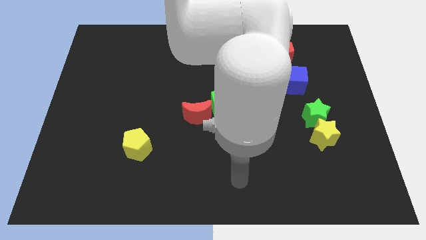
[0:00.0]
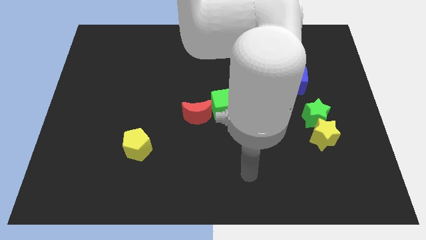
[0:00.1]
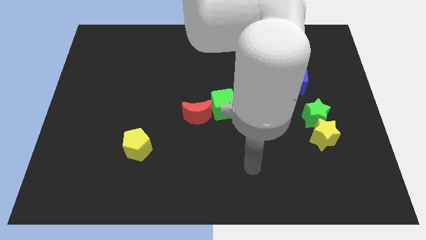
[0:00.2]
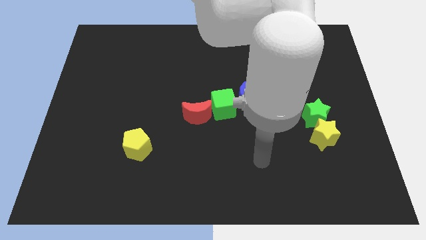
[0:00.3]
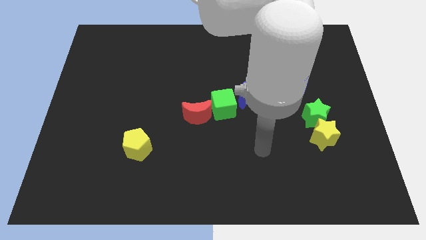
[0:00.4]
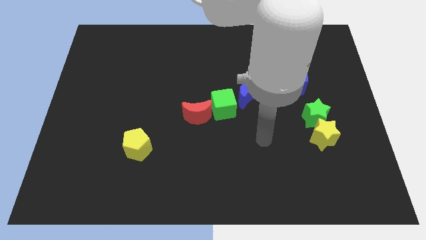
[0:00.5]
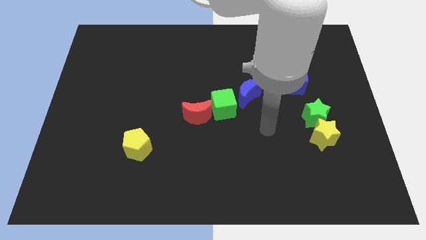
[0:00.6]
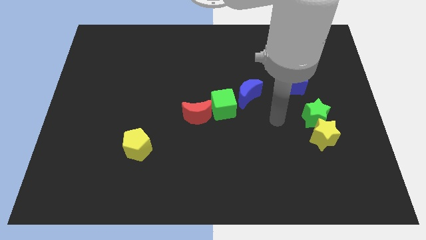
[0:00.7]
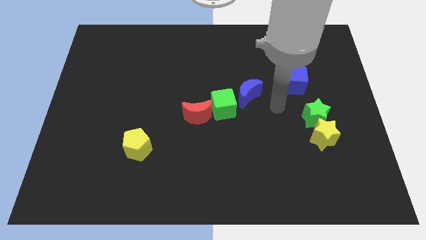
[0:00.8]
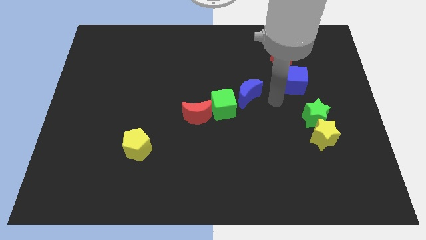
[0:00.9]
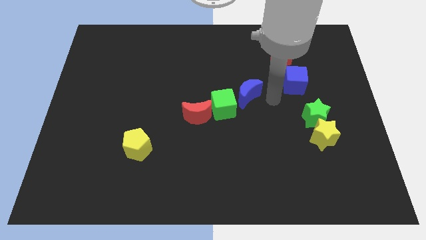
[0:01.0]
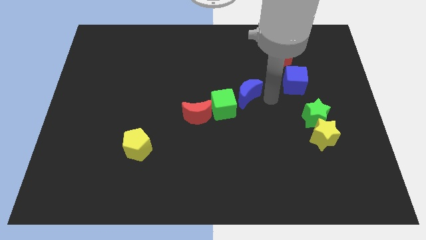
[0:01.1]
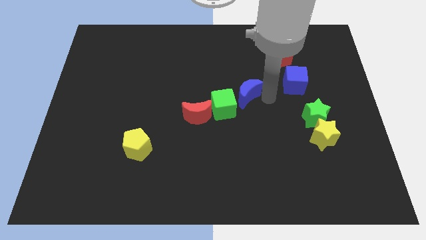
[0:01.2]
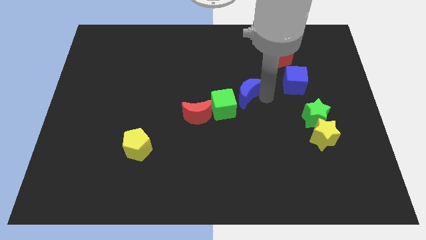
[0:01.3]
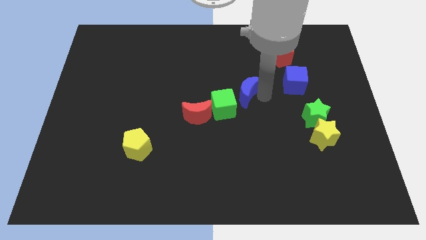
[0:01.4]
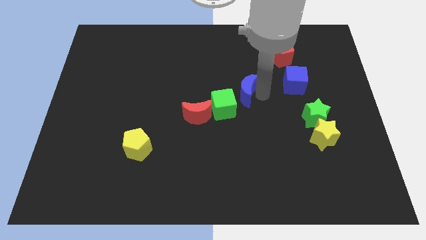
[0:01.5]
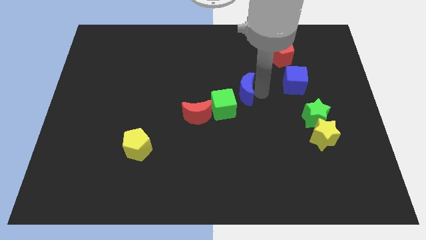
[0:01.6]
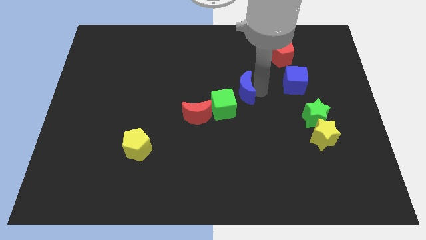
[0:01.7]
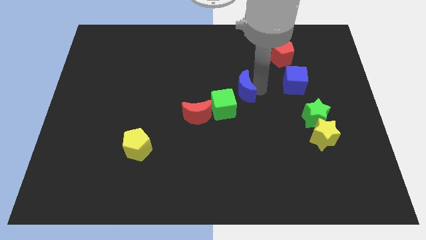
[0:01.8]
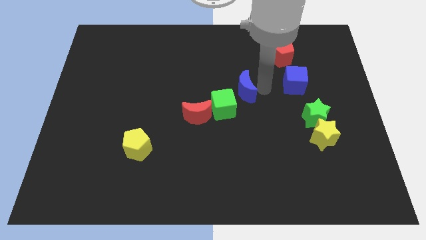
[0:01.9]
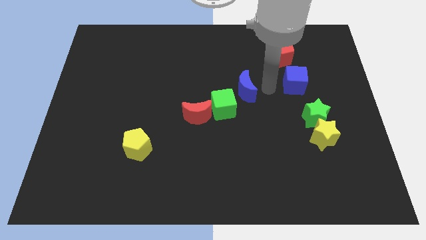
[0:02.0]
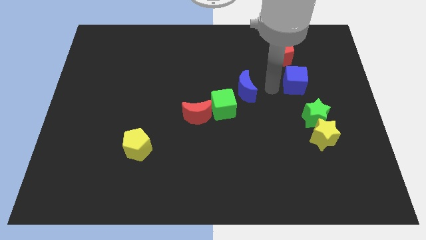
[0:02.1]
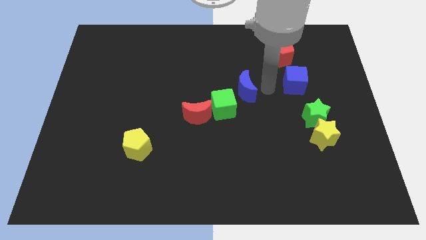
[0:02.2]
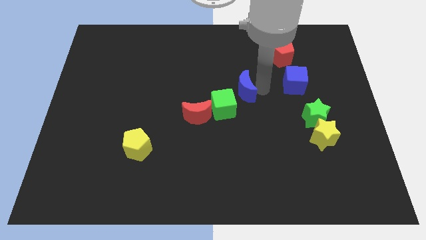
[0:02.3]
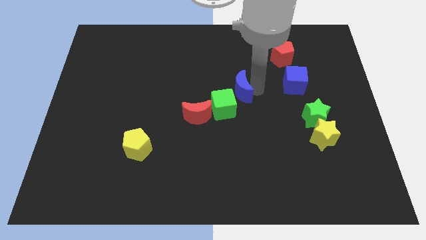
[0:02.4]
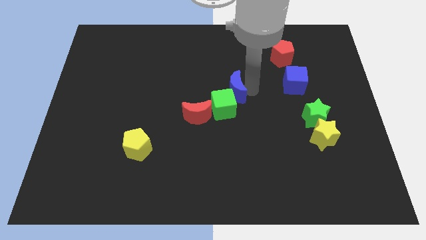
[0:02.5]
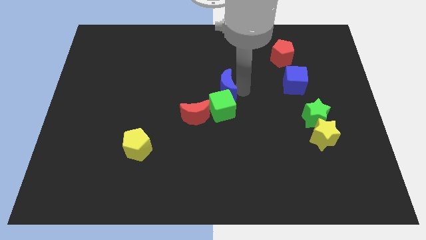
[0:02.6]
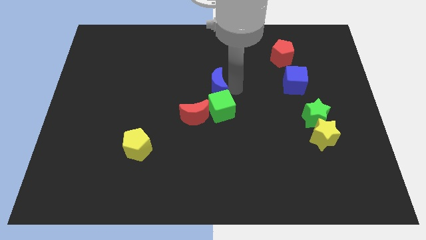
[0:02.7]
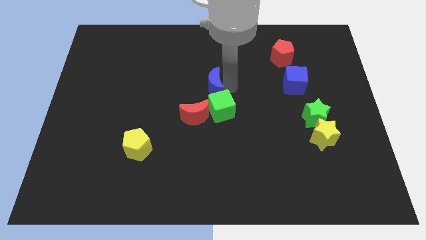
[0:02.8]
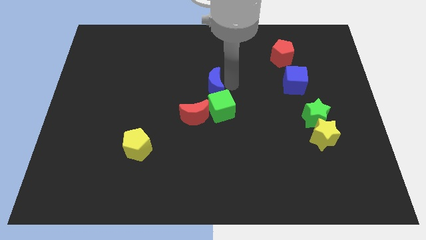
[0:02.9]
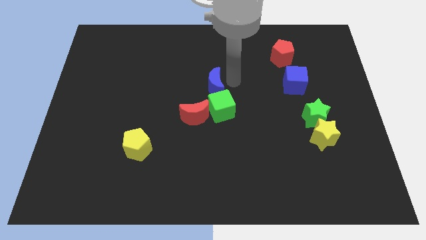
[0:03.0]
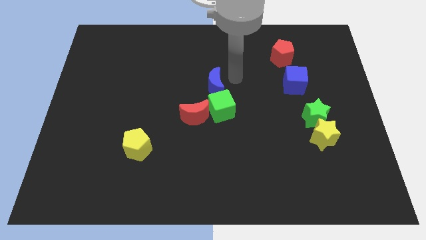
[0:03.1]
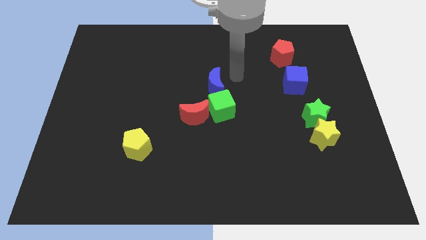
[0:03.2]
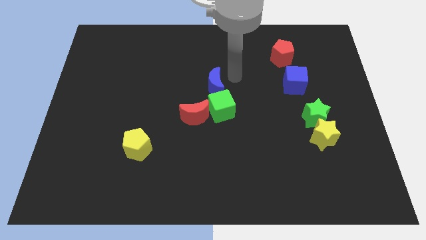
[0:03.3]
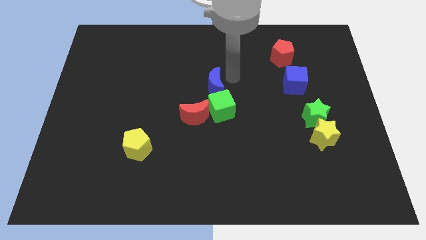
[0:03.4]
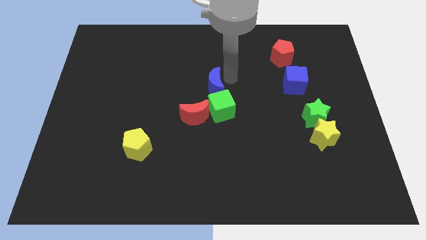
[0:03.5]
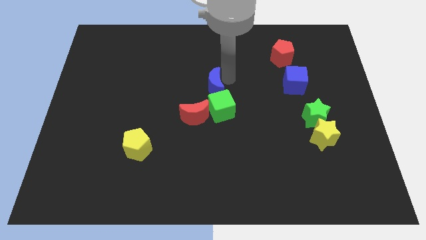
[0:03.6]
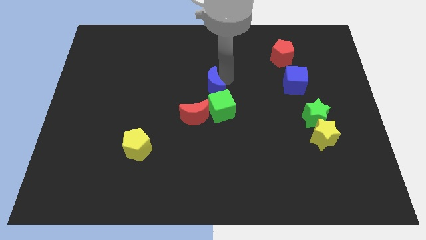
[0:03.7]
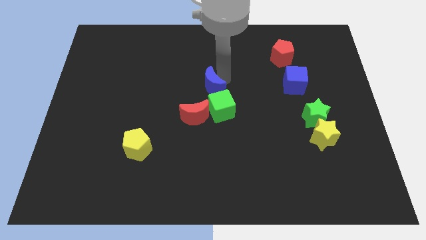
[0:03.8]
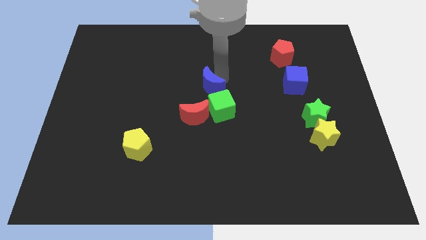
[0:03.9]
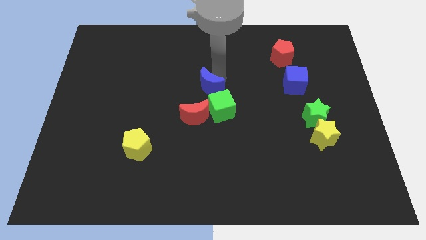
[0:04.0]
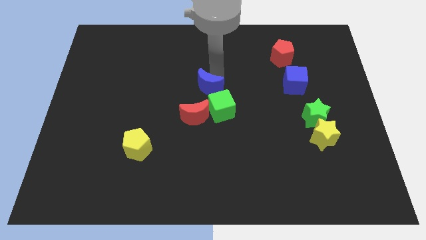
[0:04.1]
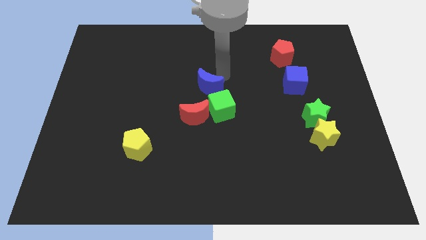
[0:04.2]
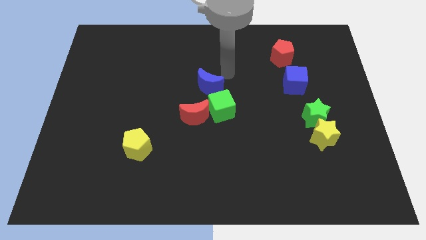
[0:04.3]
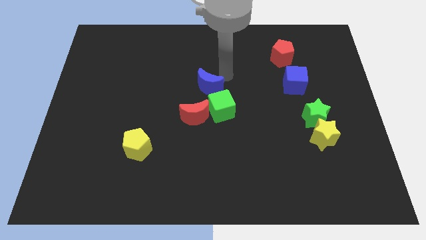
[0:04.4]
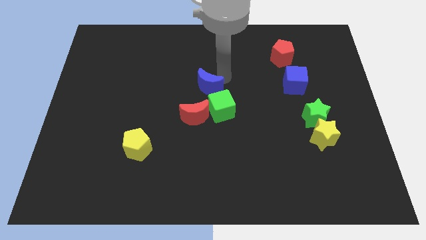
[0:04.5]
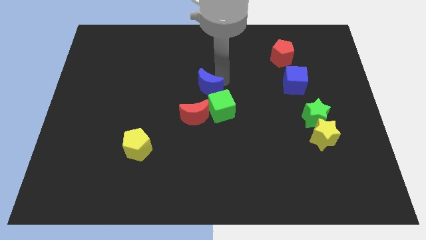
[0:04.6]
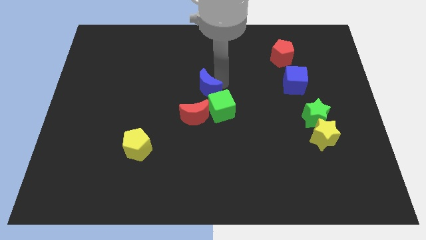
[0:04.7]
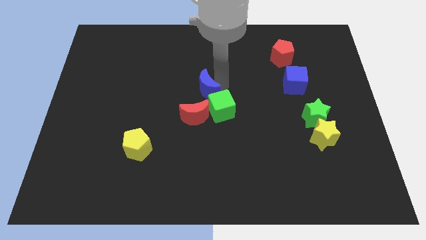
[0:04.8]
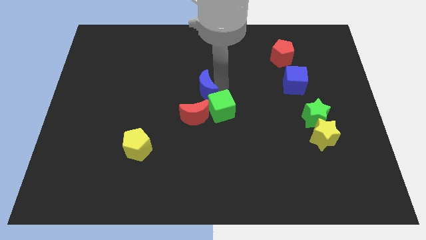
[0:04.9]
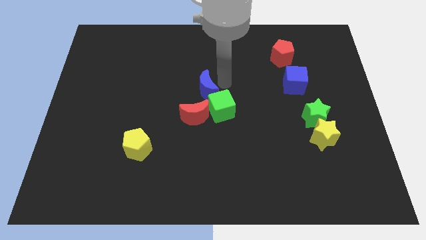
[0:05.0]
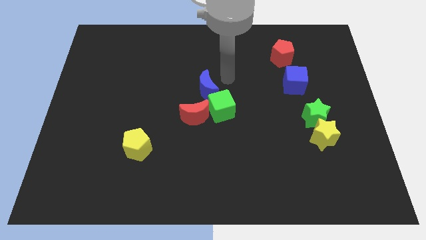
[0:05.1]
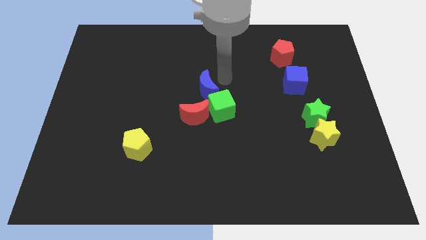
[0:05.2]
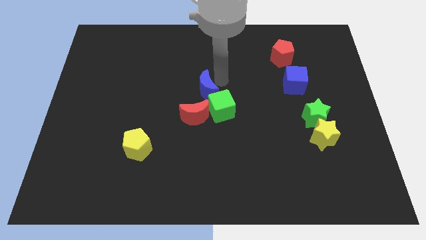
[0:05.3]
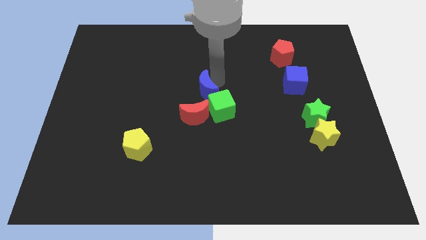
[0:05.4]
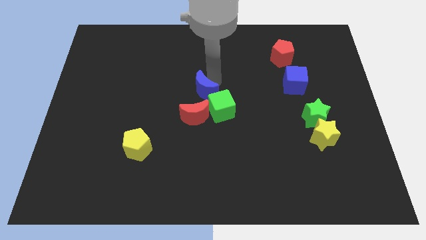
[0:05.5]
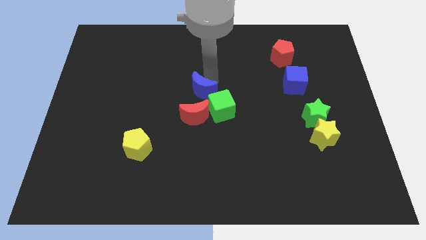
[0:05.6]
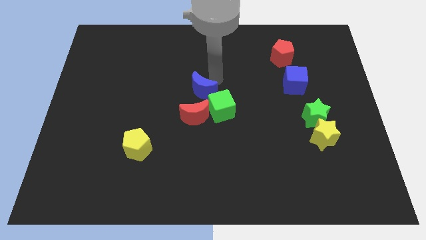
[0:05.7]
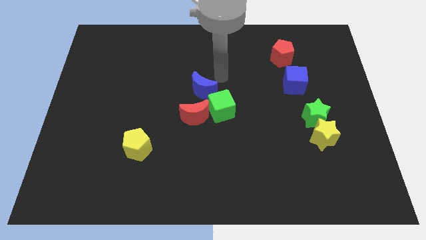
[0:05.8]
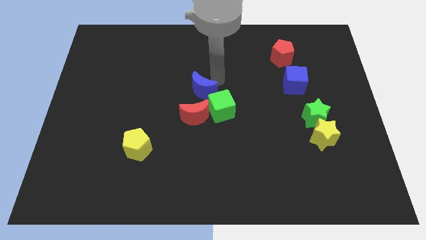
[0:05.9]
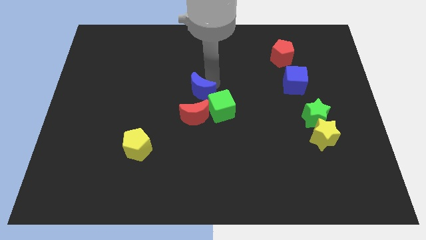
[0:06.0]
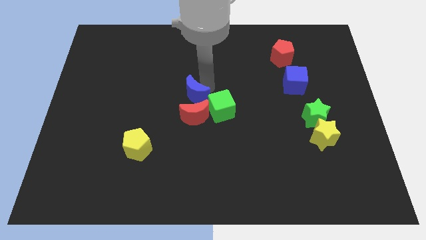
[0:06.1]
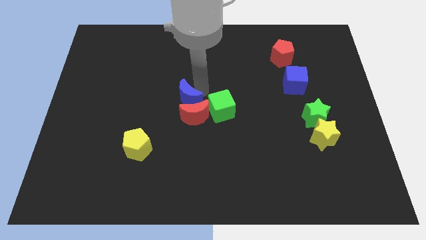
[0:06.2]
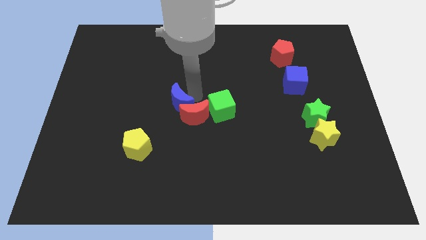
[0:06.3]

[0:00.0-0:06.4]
put the blue moon to the left side of the red moon

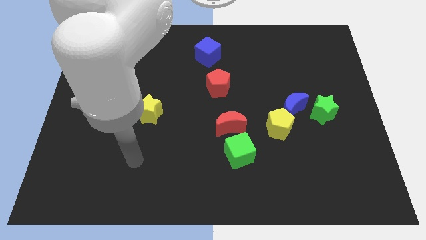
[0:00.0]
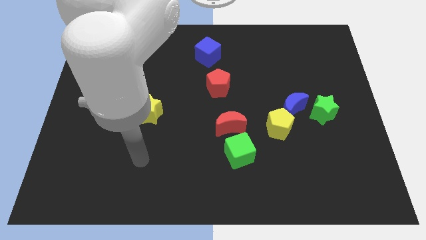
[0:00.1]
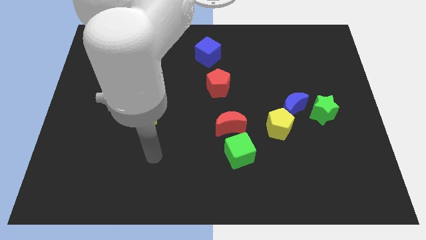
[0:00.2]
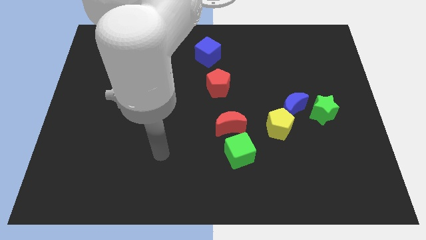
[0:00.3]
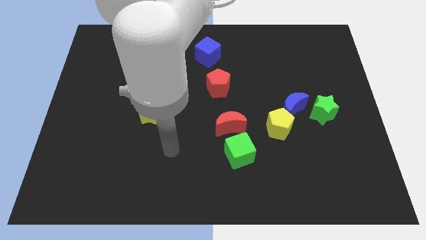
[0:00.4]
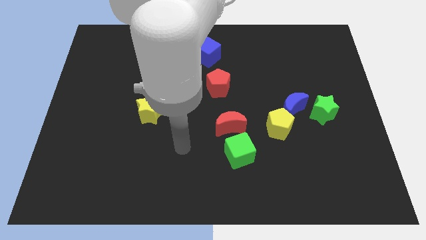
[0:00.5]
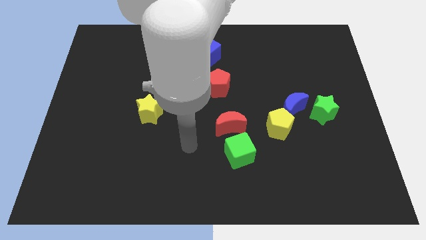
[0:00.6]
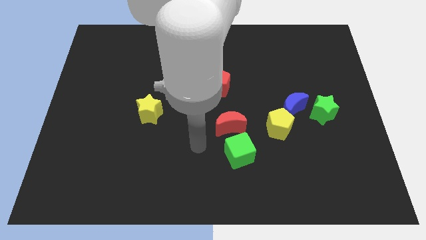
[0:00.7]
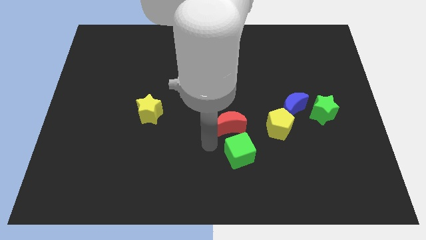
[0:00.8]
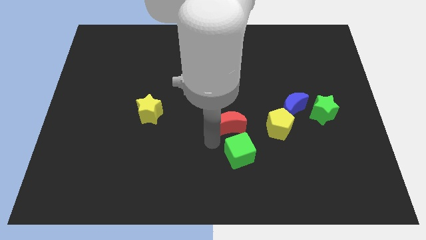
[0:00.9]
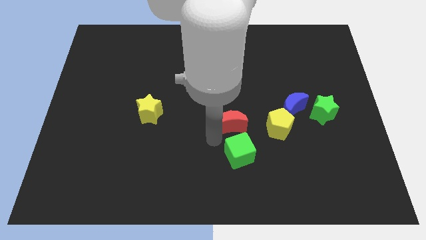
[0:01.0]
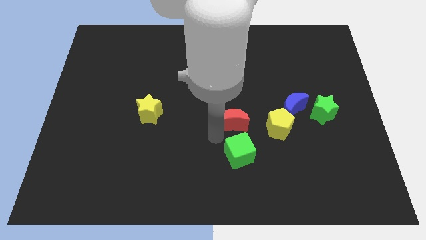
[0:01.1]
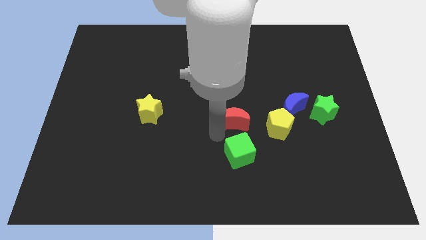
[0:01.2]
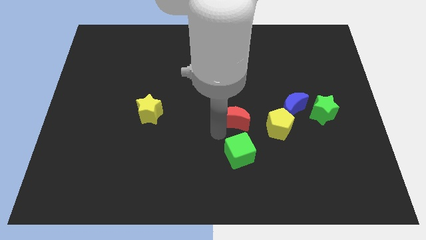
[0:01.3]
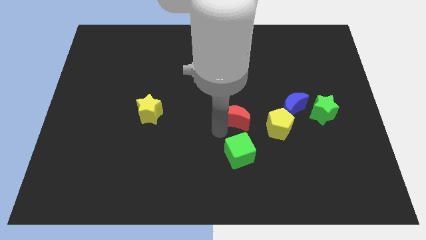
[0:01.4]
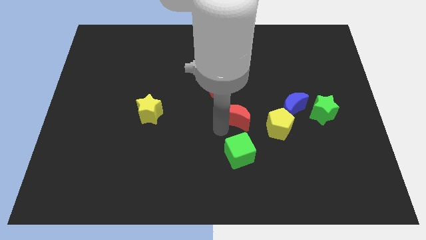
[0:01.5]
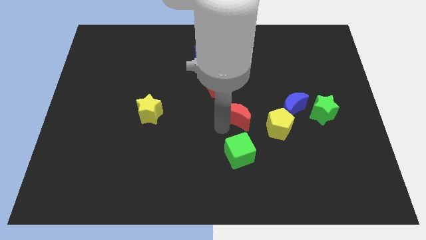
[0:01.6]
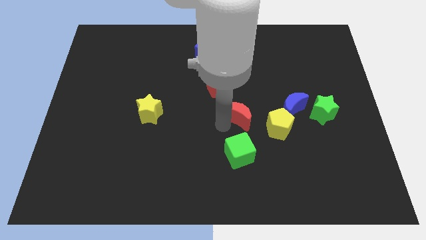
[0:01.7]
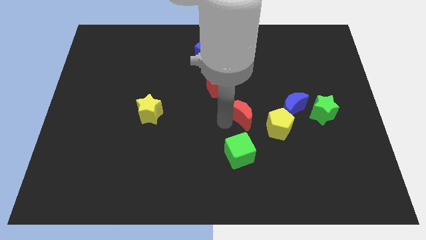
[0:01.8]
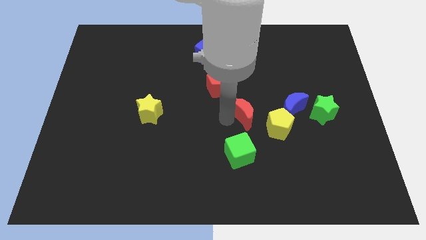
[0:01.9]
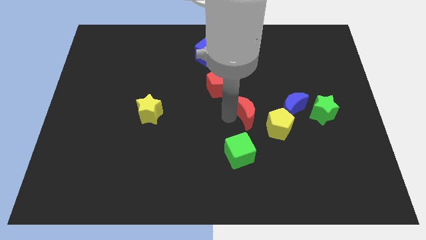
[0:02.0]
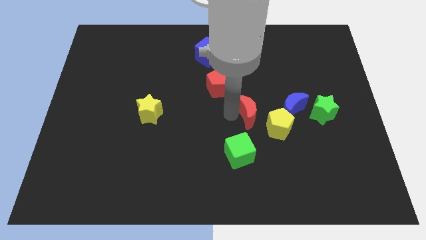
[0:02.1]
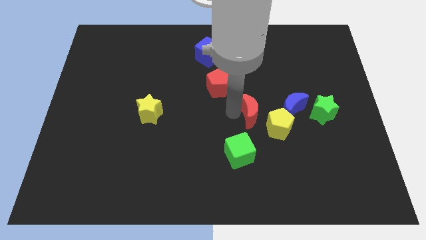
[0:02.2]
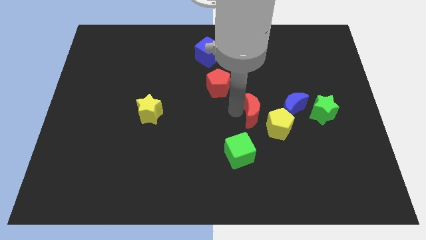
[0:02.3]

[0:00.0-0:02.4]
push the red moon to the left of the green star
